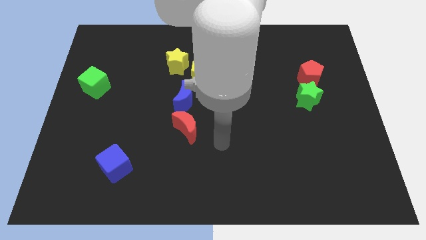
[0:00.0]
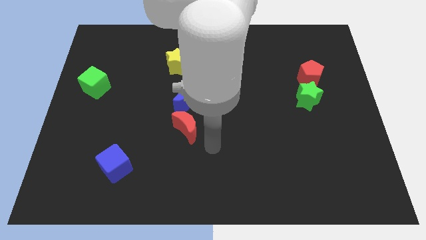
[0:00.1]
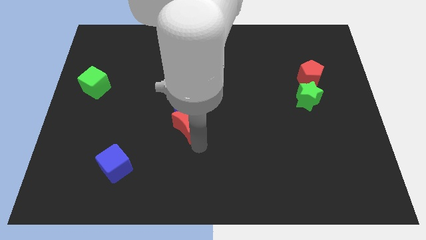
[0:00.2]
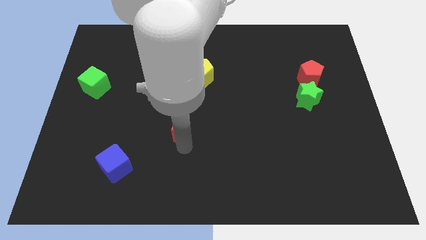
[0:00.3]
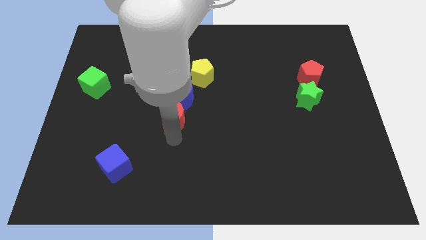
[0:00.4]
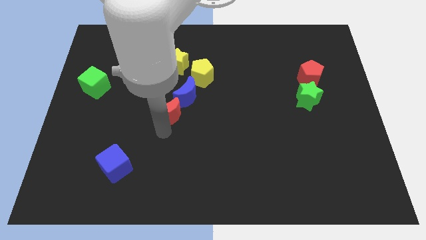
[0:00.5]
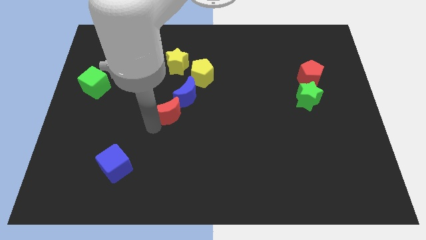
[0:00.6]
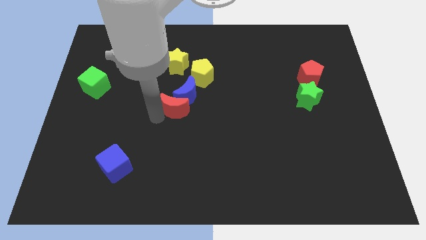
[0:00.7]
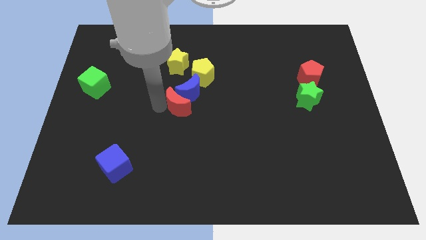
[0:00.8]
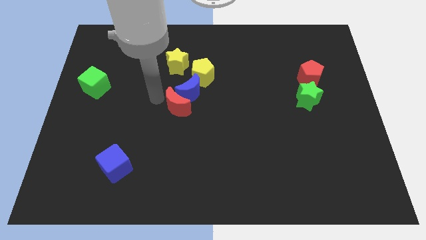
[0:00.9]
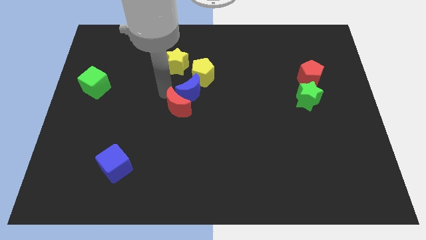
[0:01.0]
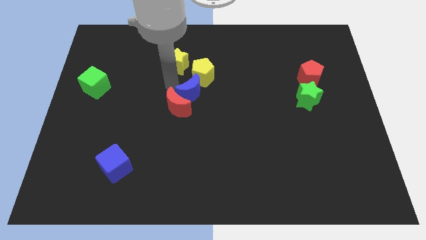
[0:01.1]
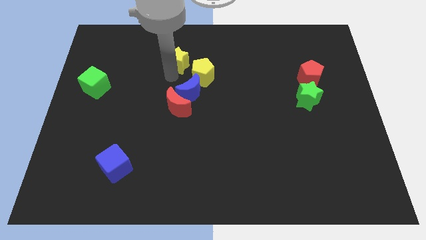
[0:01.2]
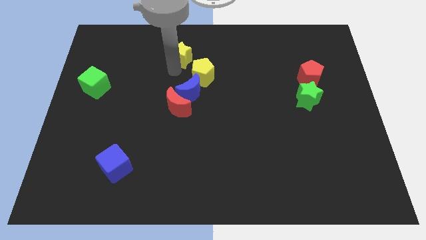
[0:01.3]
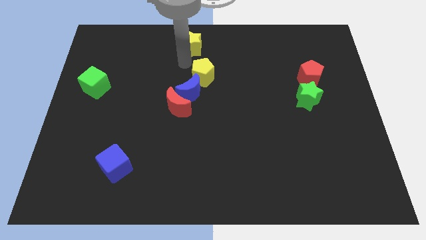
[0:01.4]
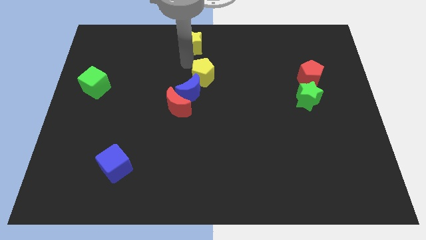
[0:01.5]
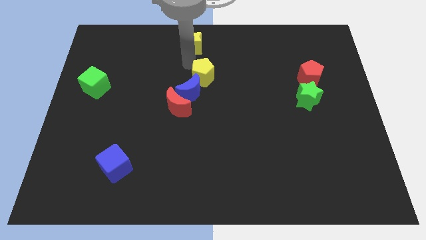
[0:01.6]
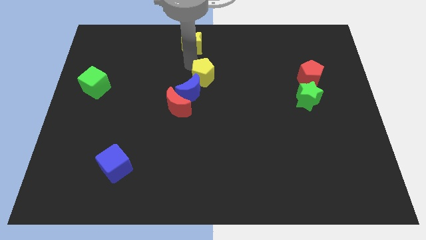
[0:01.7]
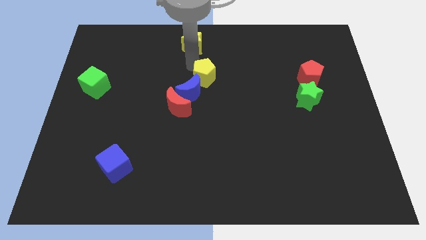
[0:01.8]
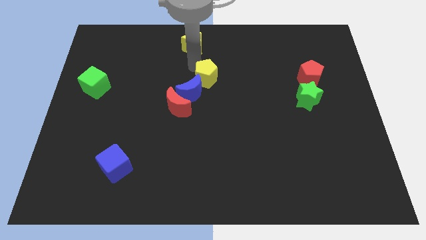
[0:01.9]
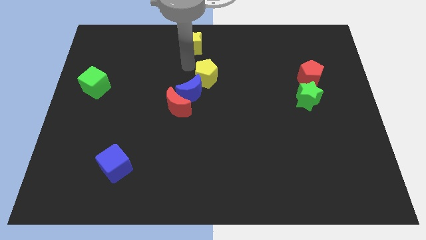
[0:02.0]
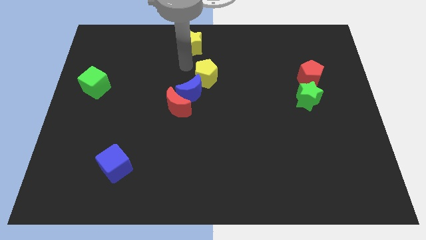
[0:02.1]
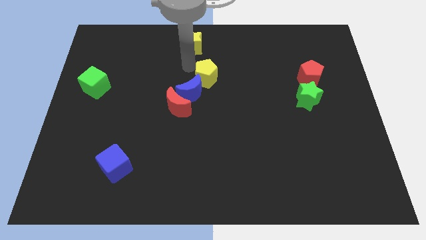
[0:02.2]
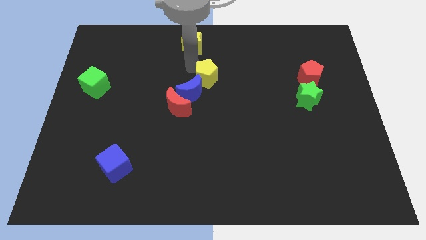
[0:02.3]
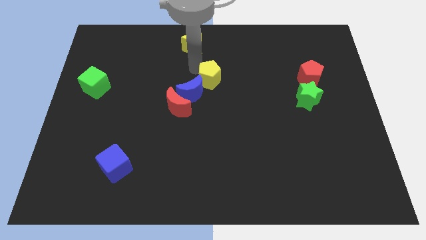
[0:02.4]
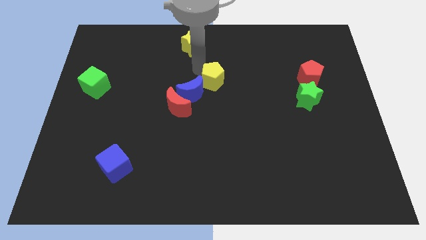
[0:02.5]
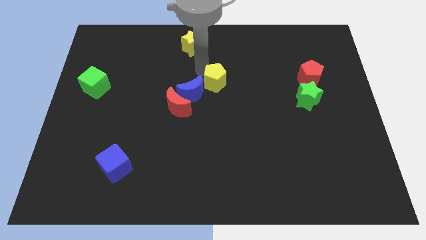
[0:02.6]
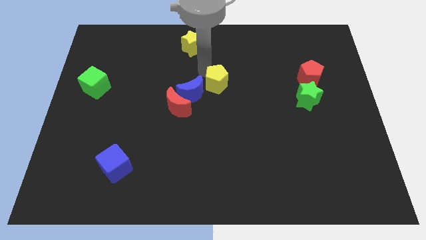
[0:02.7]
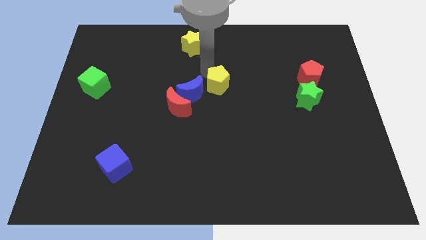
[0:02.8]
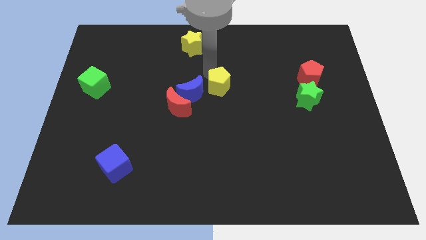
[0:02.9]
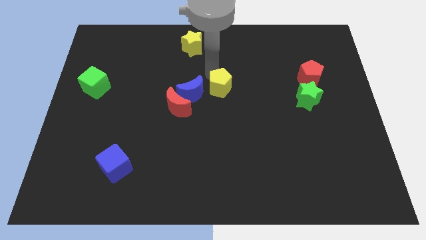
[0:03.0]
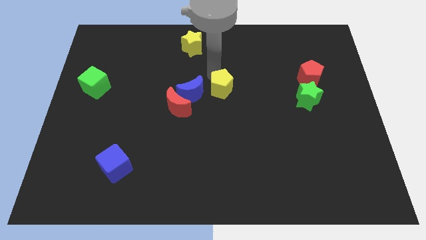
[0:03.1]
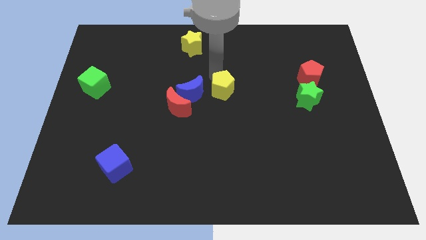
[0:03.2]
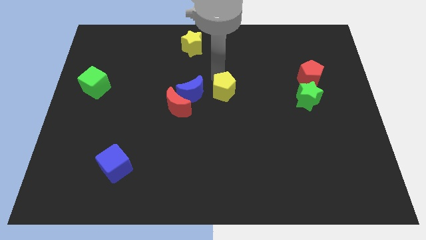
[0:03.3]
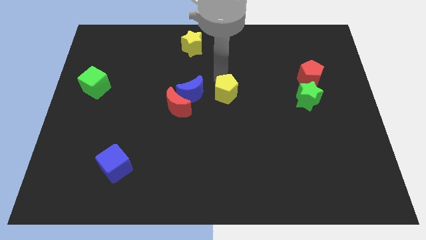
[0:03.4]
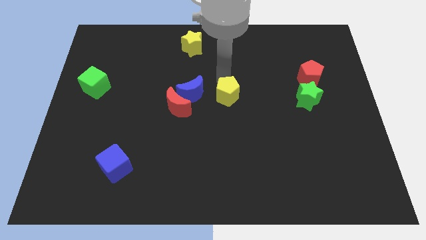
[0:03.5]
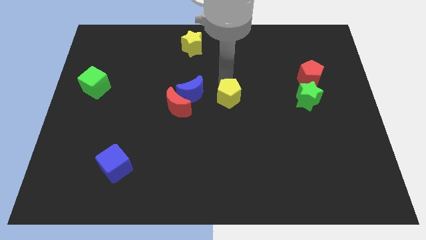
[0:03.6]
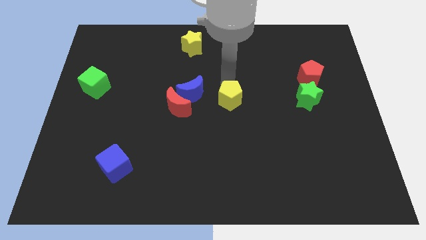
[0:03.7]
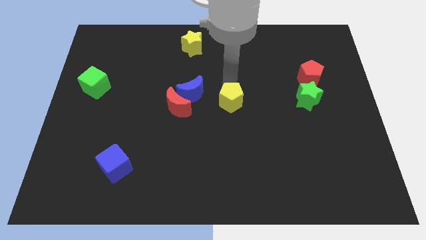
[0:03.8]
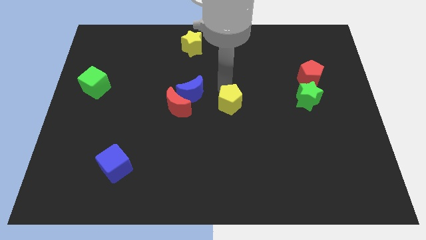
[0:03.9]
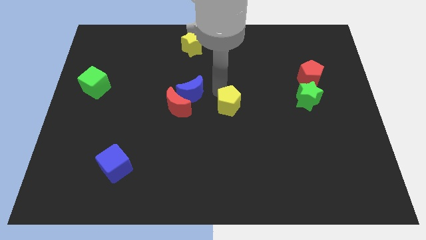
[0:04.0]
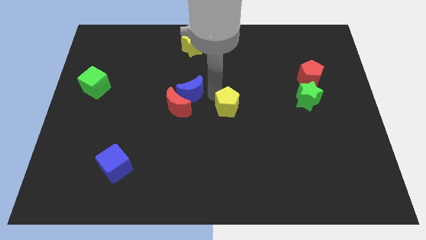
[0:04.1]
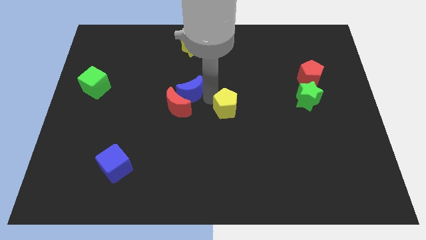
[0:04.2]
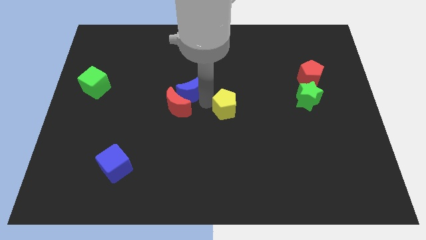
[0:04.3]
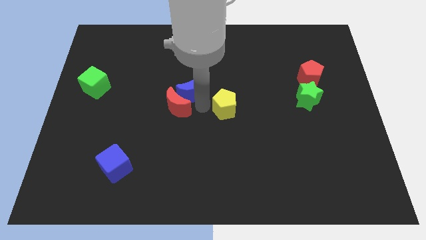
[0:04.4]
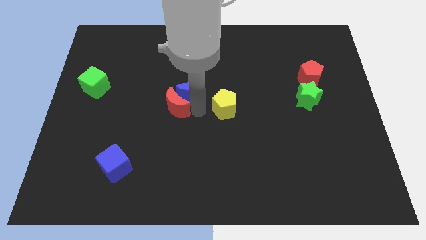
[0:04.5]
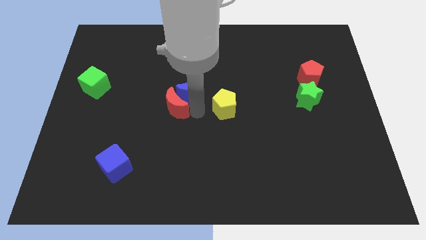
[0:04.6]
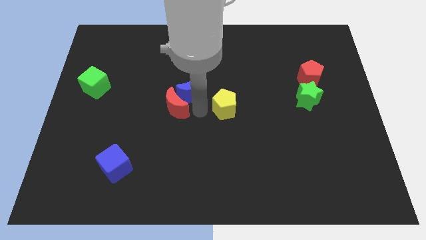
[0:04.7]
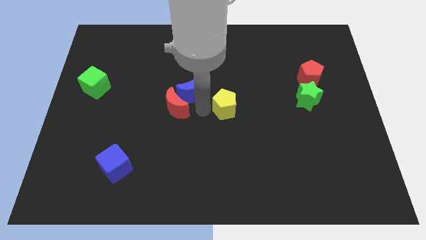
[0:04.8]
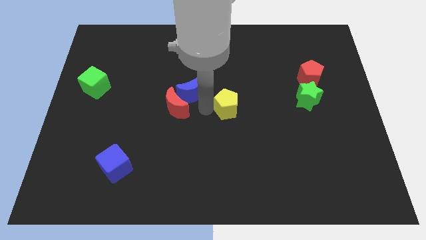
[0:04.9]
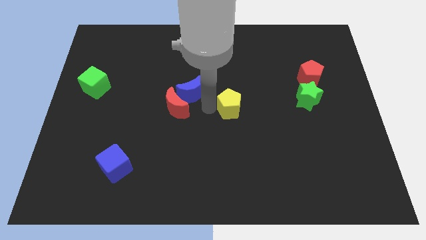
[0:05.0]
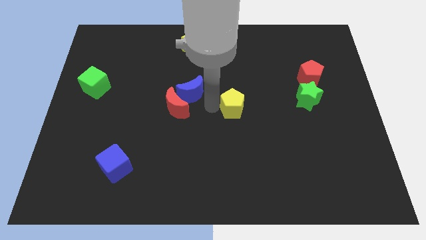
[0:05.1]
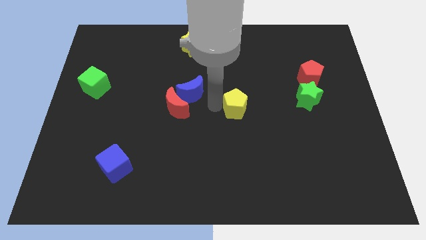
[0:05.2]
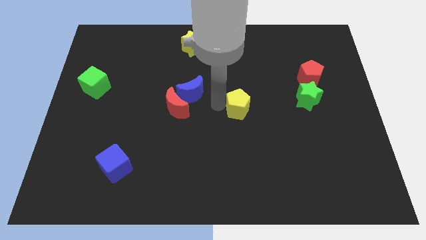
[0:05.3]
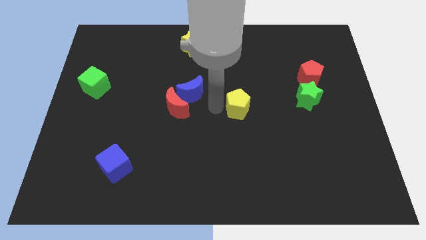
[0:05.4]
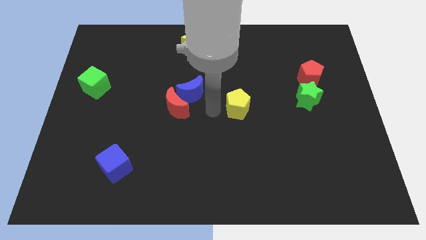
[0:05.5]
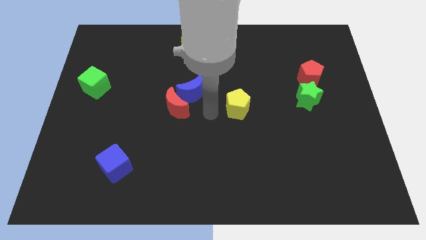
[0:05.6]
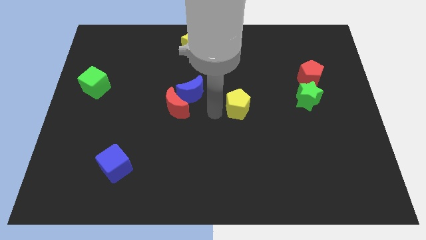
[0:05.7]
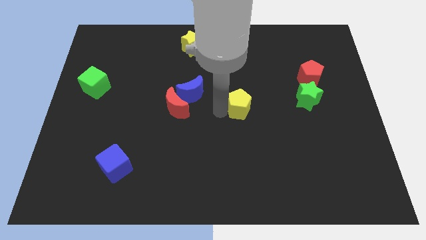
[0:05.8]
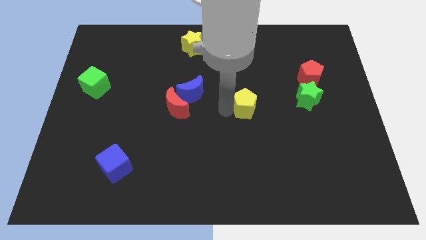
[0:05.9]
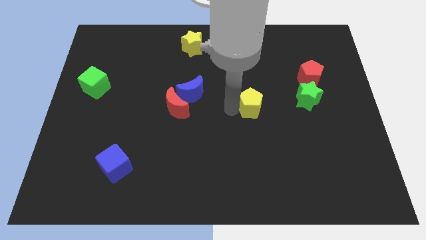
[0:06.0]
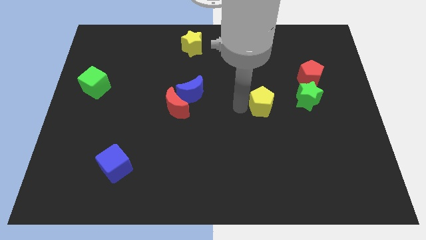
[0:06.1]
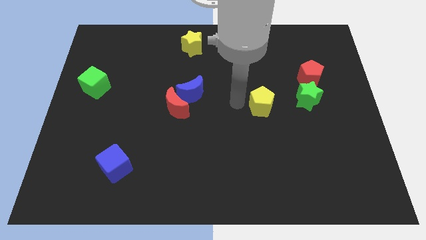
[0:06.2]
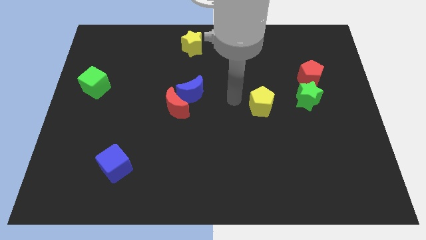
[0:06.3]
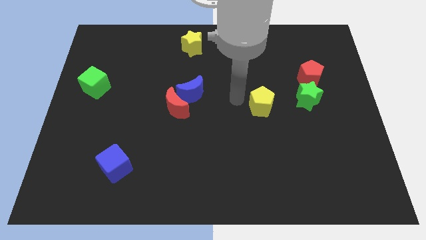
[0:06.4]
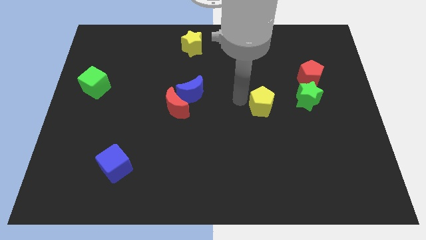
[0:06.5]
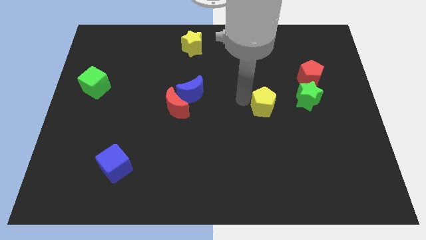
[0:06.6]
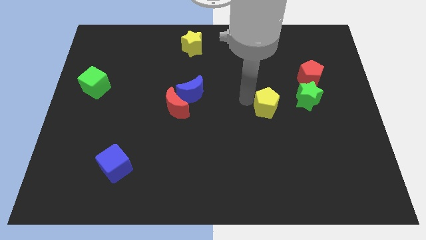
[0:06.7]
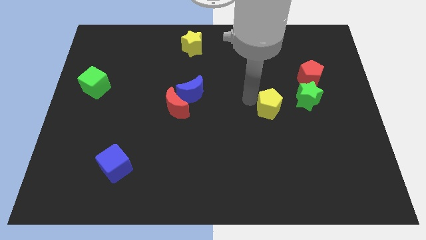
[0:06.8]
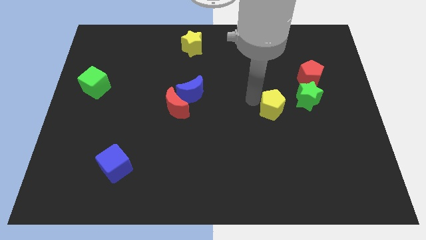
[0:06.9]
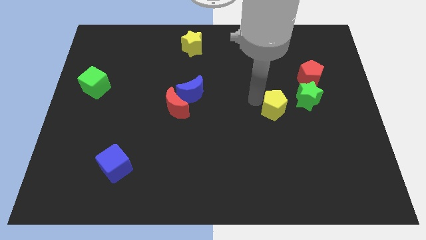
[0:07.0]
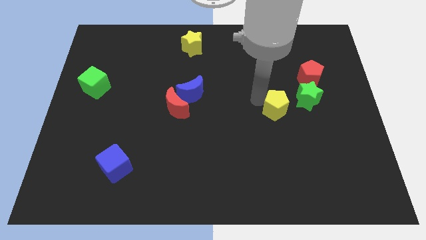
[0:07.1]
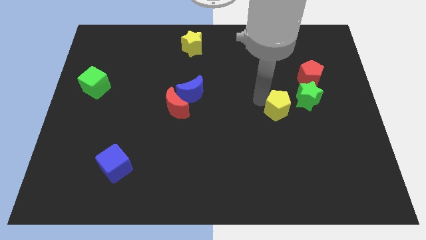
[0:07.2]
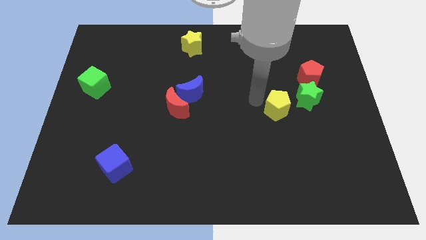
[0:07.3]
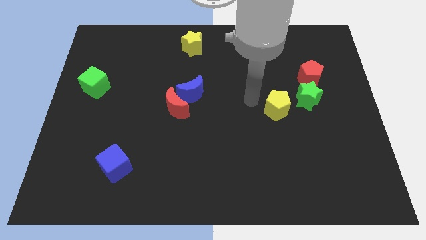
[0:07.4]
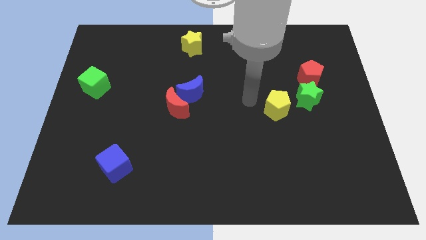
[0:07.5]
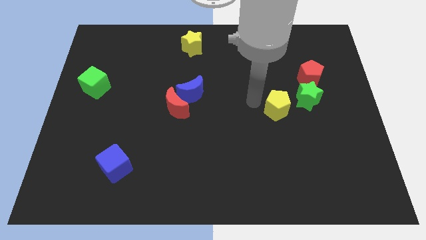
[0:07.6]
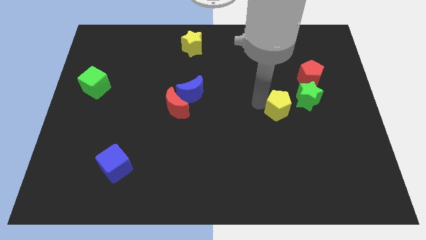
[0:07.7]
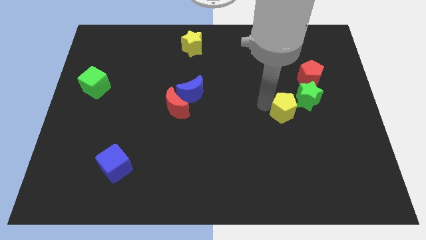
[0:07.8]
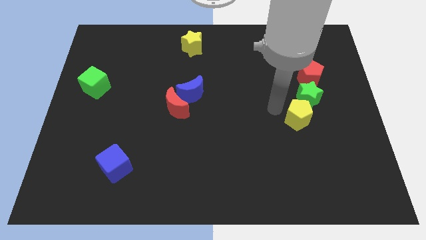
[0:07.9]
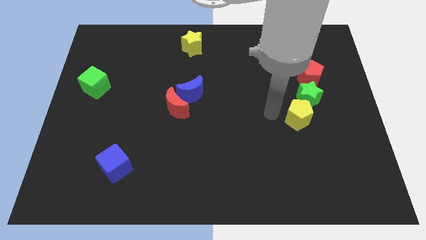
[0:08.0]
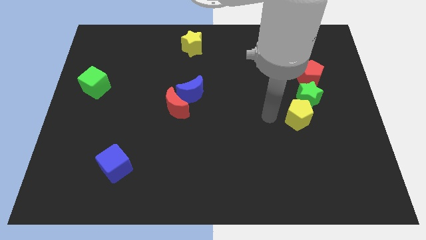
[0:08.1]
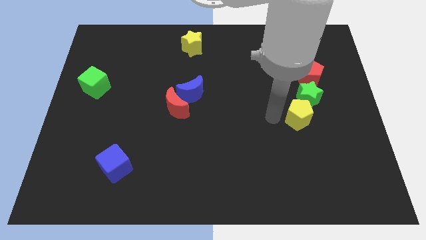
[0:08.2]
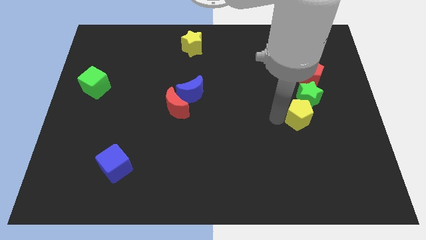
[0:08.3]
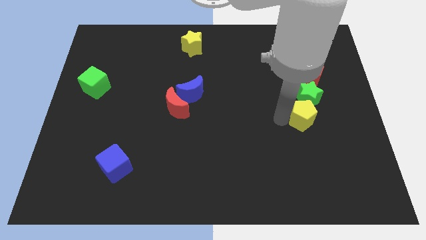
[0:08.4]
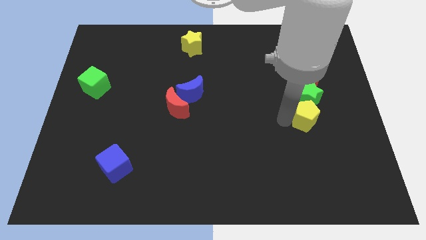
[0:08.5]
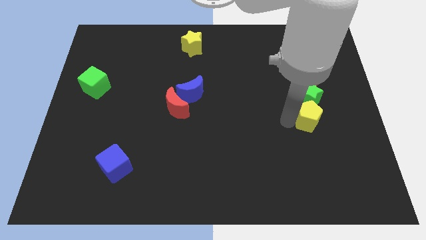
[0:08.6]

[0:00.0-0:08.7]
put the yellow pentagon to the bottom right side of the green star
